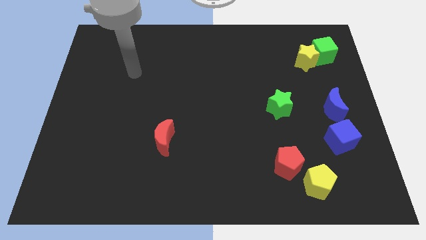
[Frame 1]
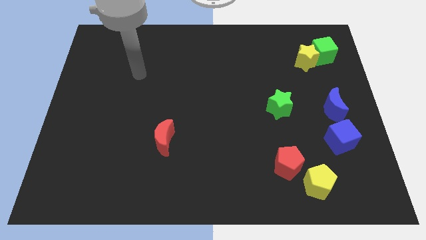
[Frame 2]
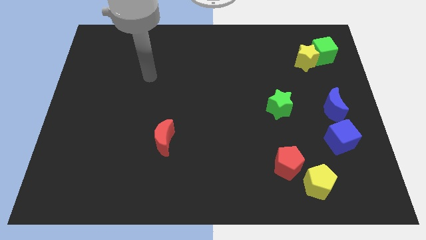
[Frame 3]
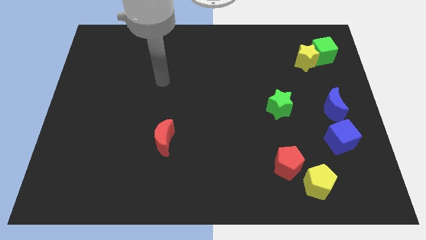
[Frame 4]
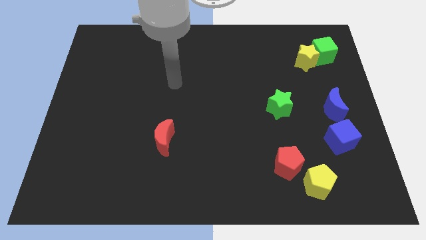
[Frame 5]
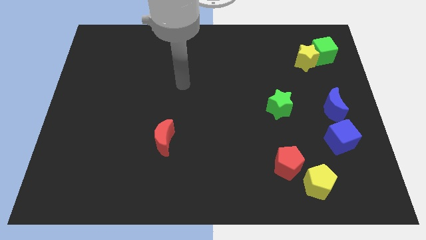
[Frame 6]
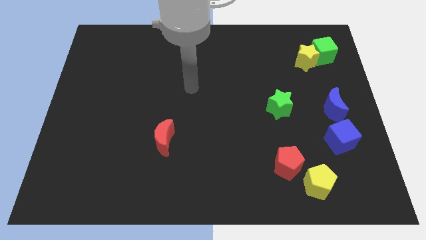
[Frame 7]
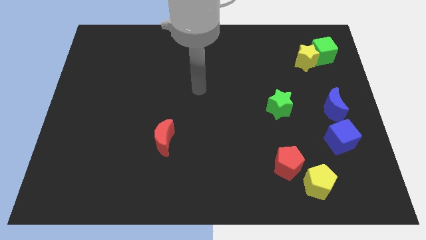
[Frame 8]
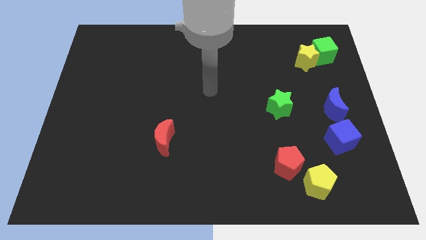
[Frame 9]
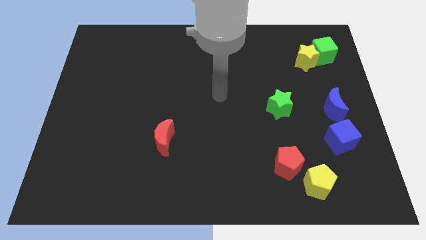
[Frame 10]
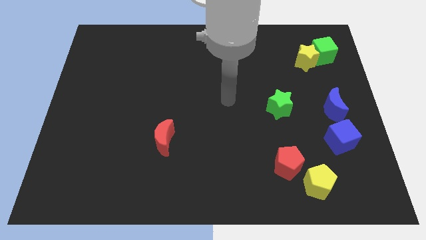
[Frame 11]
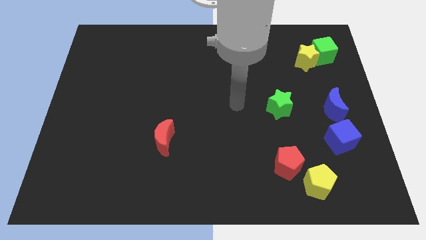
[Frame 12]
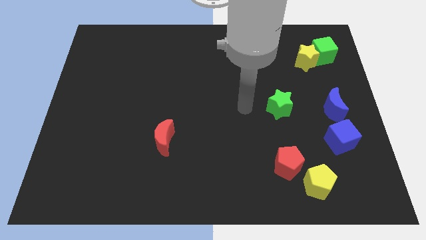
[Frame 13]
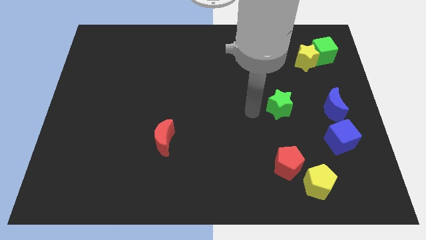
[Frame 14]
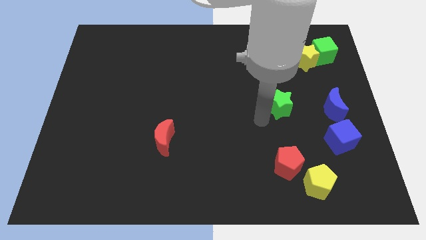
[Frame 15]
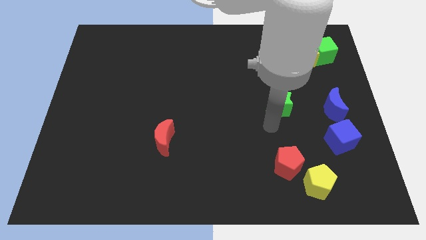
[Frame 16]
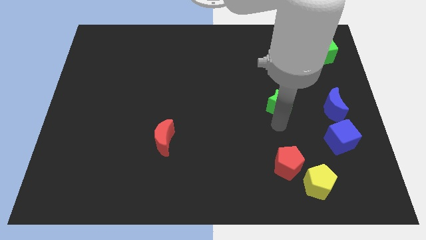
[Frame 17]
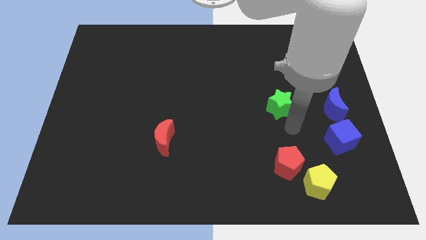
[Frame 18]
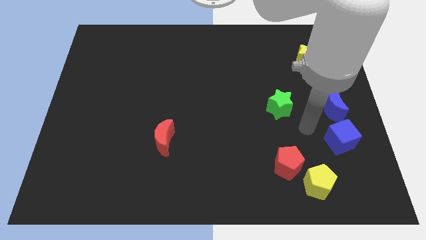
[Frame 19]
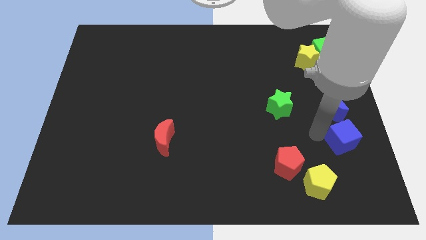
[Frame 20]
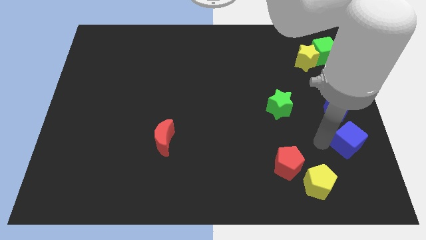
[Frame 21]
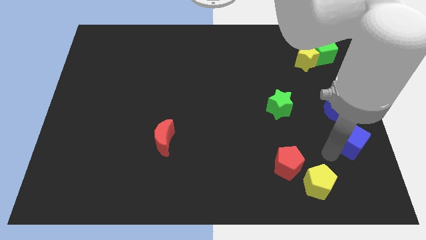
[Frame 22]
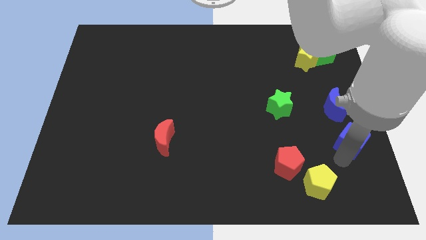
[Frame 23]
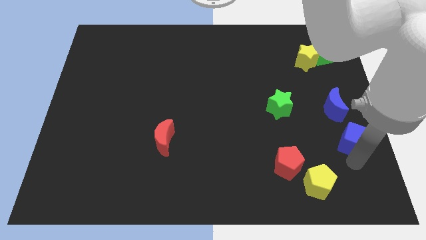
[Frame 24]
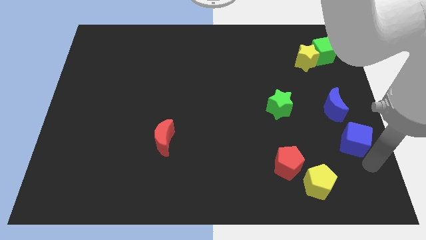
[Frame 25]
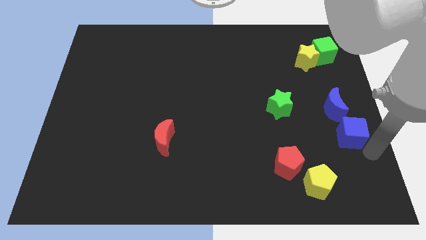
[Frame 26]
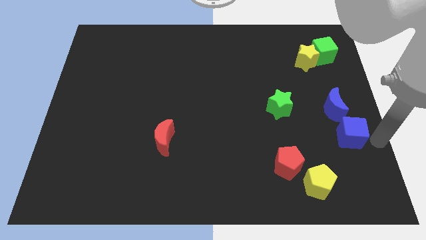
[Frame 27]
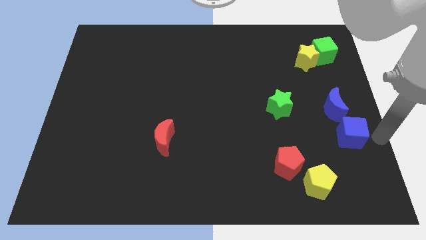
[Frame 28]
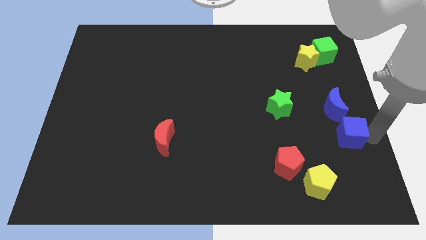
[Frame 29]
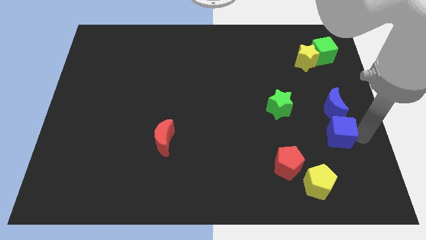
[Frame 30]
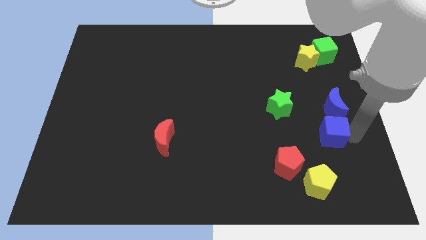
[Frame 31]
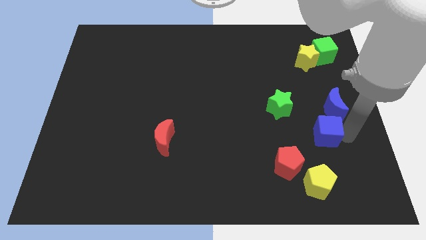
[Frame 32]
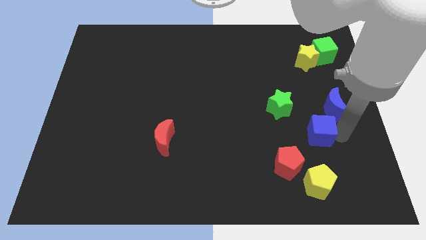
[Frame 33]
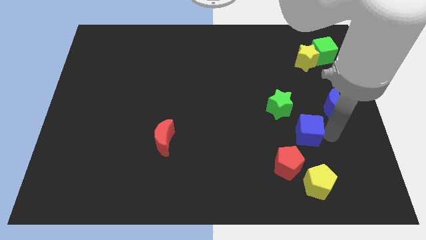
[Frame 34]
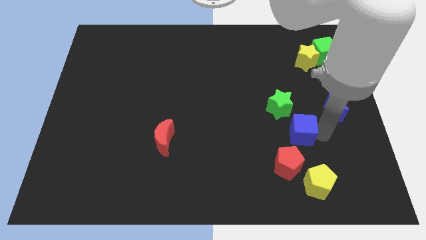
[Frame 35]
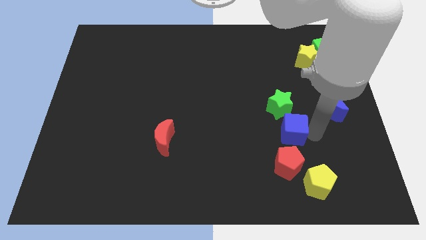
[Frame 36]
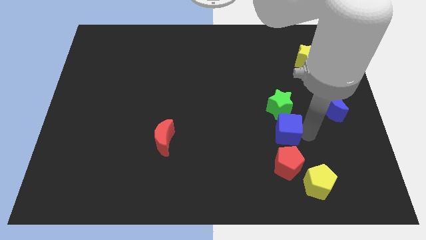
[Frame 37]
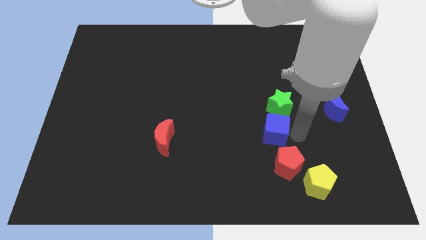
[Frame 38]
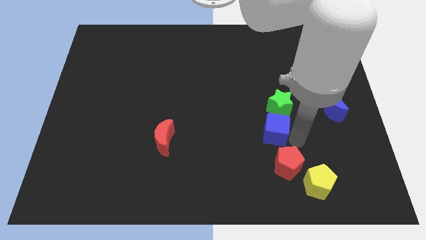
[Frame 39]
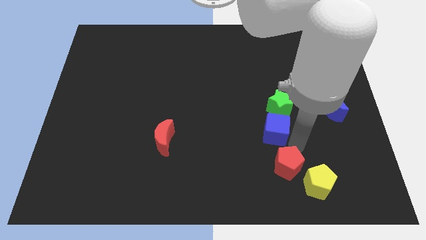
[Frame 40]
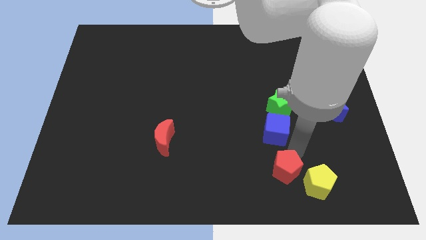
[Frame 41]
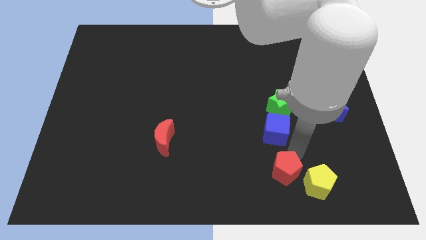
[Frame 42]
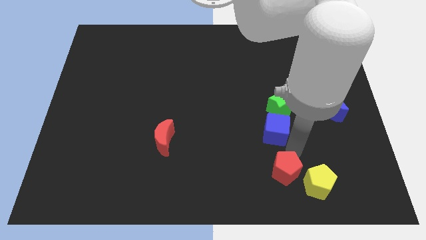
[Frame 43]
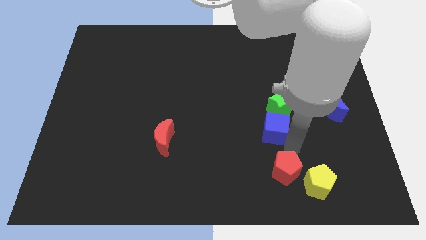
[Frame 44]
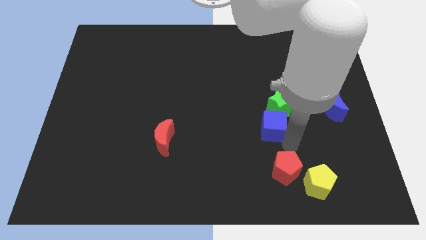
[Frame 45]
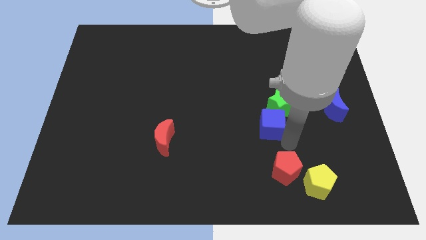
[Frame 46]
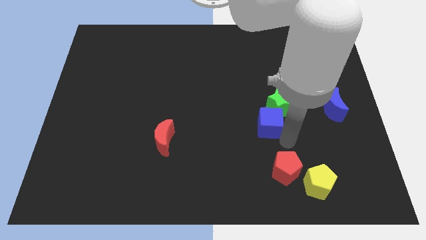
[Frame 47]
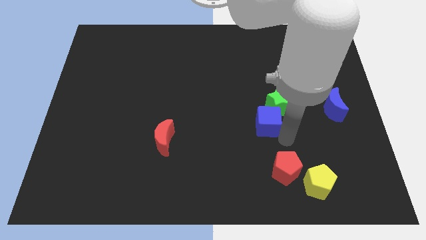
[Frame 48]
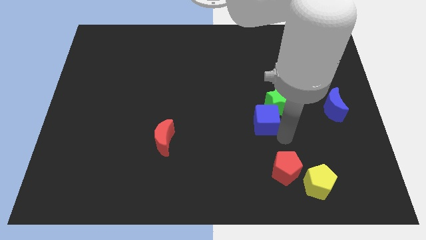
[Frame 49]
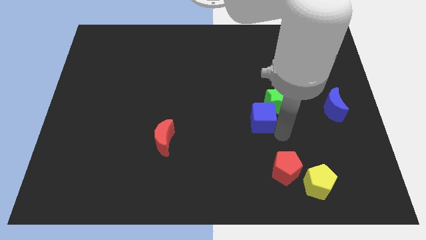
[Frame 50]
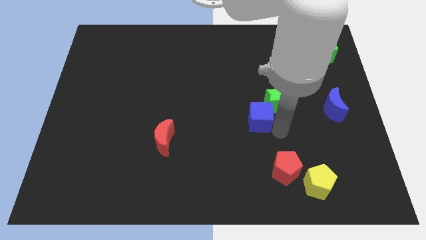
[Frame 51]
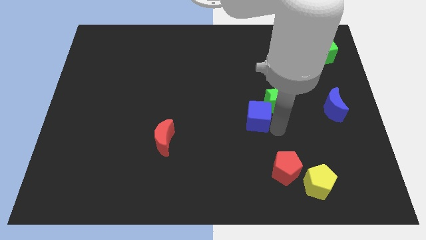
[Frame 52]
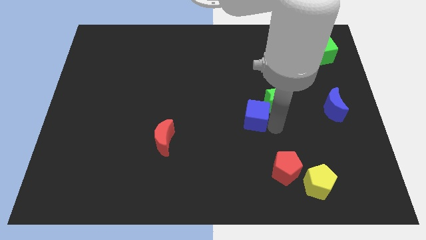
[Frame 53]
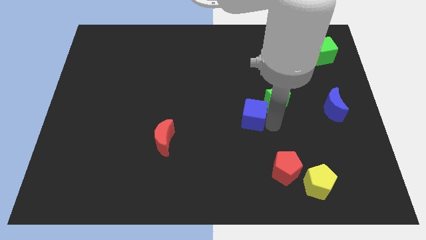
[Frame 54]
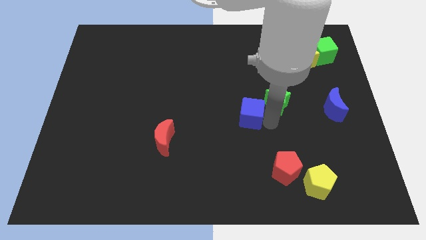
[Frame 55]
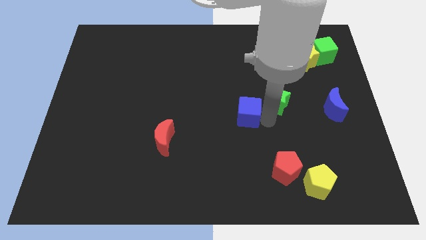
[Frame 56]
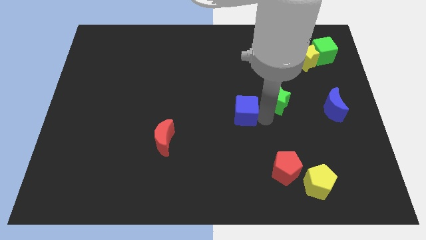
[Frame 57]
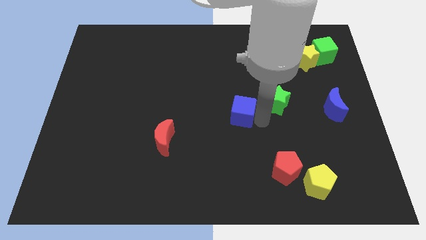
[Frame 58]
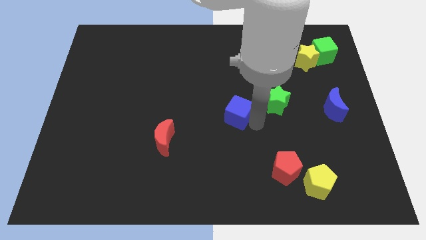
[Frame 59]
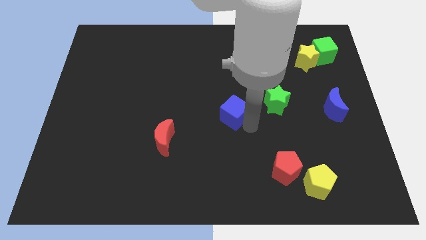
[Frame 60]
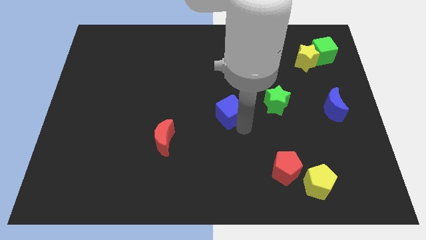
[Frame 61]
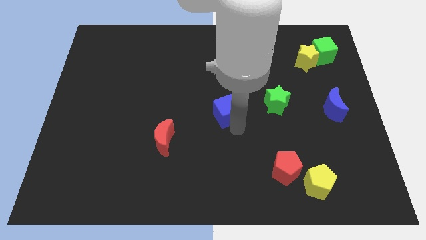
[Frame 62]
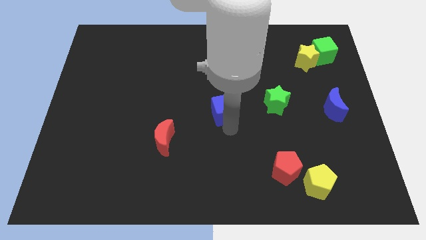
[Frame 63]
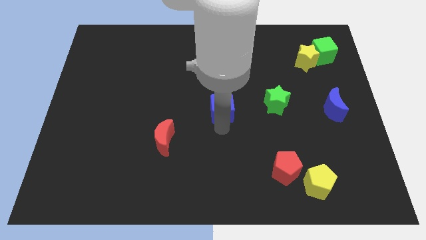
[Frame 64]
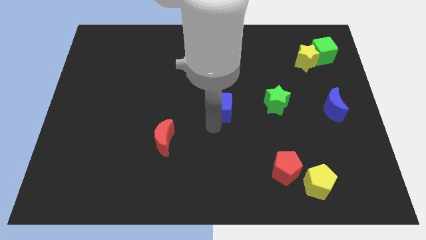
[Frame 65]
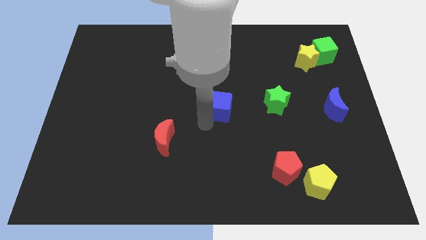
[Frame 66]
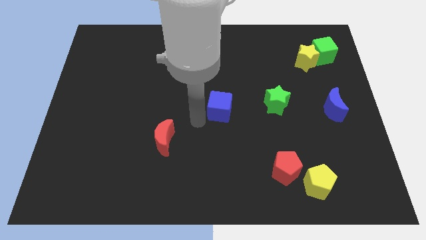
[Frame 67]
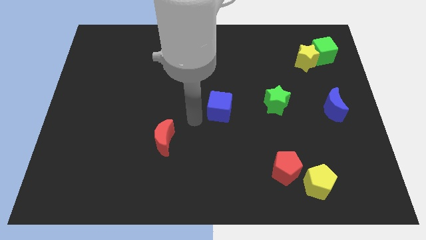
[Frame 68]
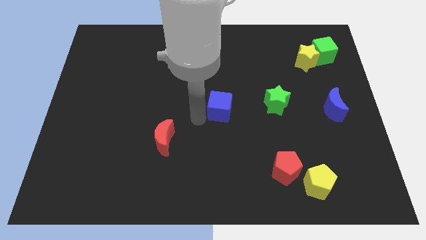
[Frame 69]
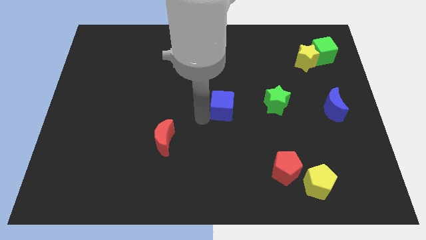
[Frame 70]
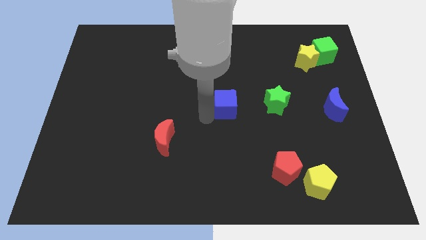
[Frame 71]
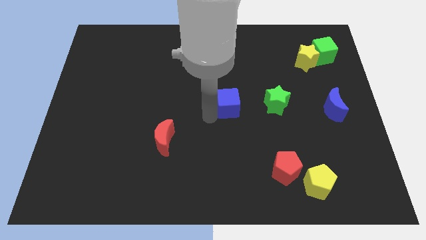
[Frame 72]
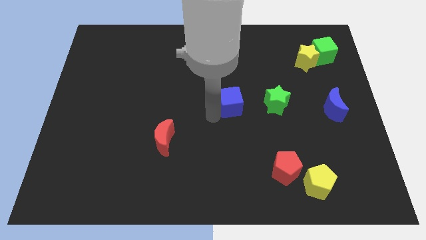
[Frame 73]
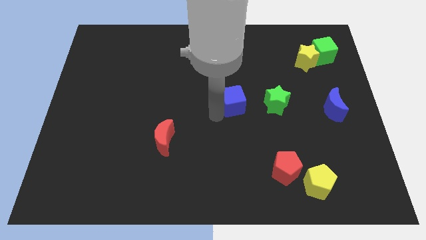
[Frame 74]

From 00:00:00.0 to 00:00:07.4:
slide the blue cube diagonally up and to the left

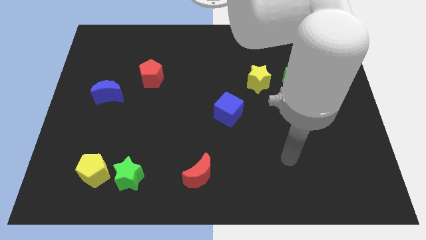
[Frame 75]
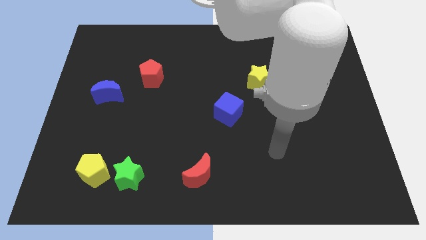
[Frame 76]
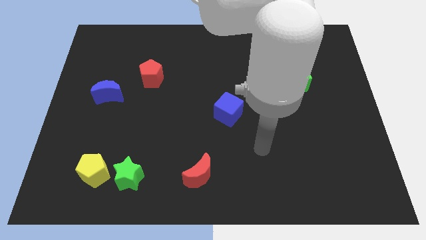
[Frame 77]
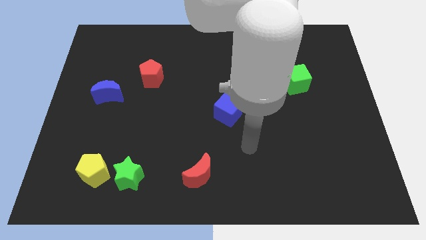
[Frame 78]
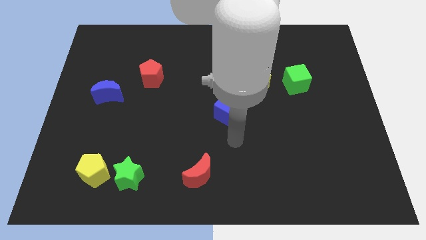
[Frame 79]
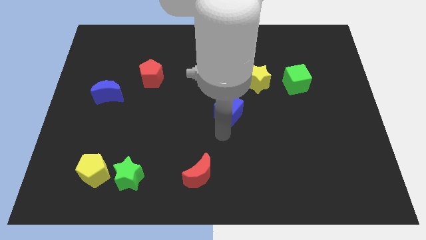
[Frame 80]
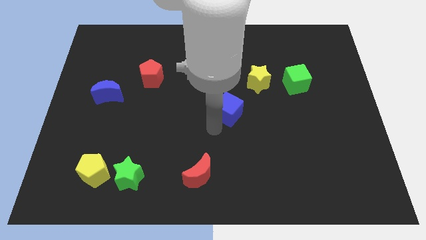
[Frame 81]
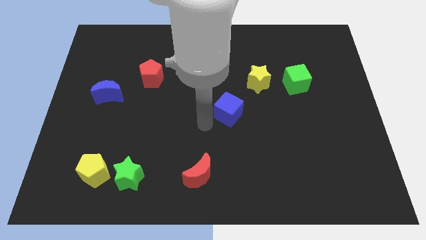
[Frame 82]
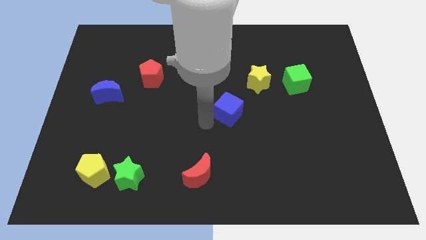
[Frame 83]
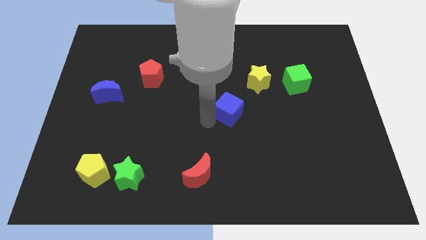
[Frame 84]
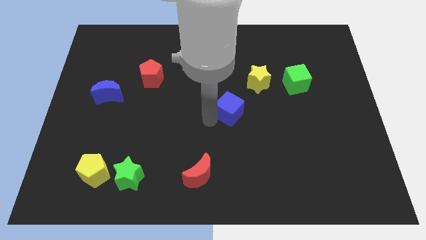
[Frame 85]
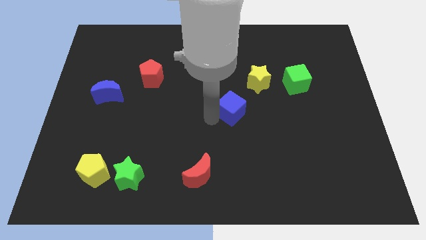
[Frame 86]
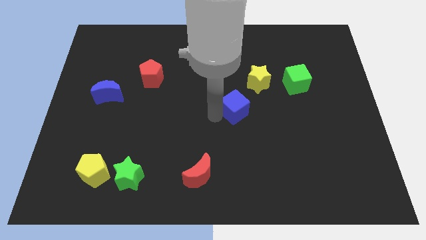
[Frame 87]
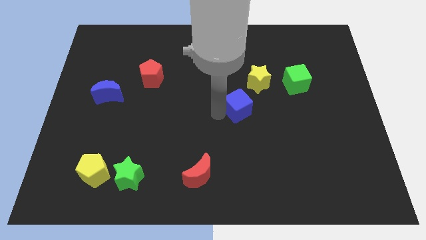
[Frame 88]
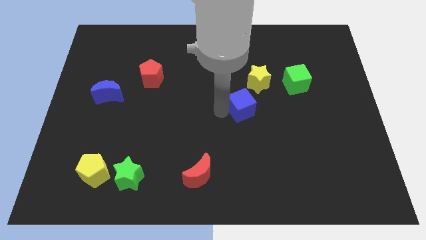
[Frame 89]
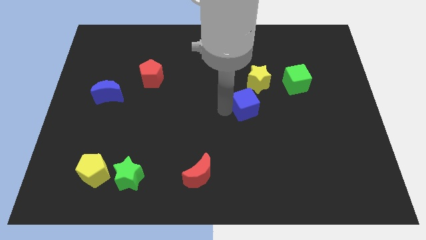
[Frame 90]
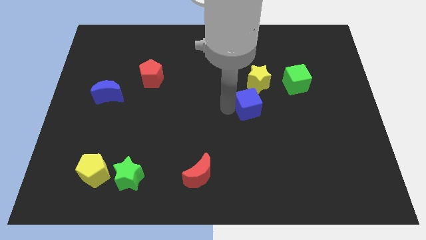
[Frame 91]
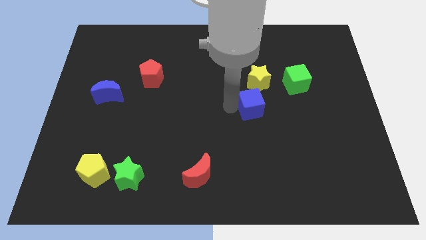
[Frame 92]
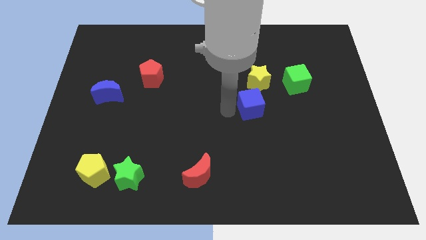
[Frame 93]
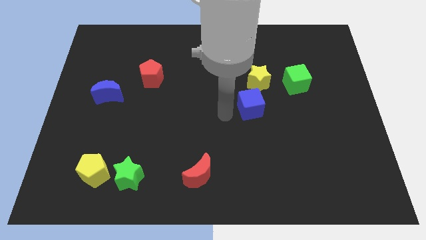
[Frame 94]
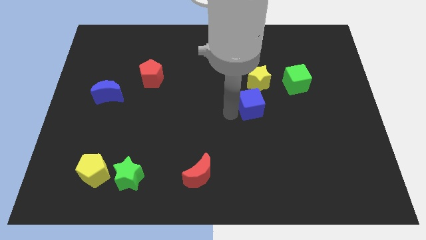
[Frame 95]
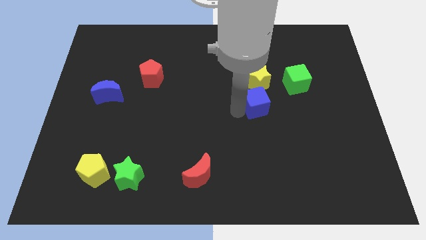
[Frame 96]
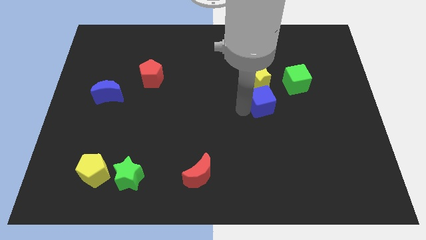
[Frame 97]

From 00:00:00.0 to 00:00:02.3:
push the blue cube upwards and right diagonally a bit
